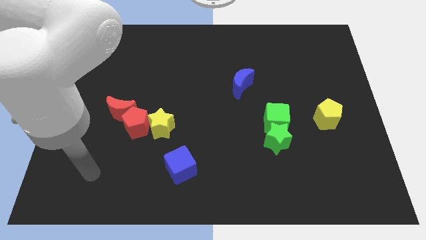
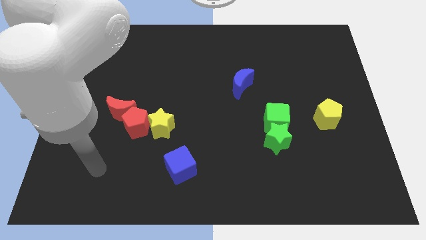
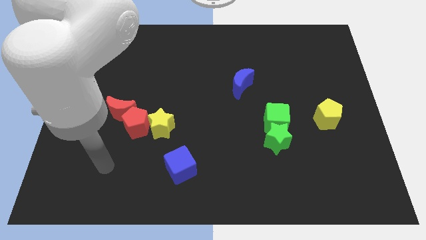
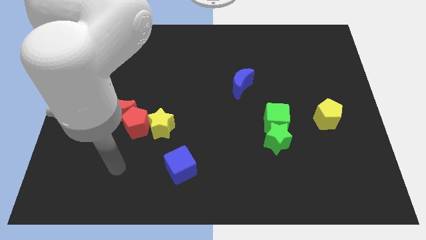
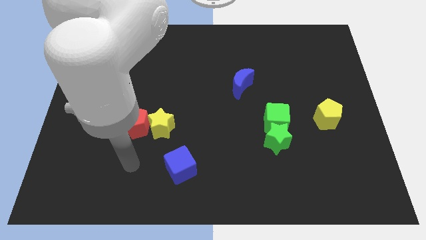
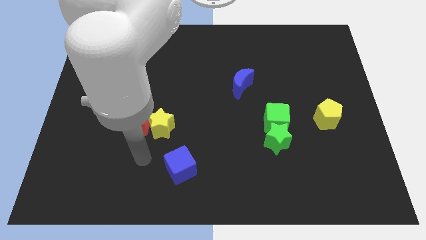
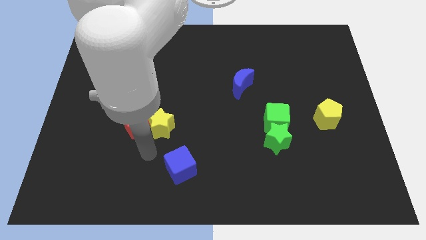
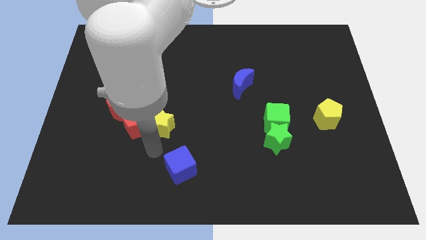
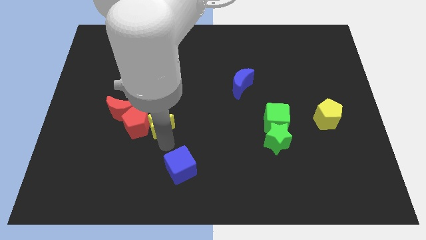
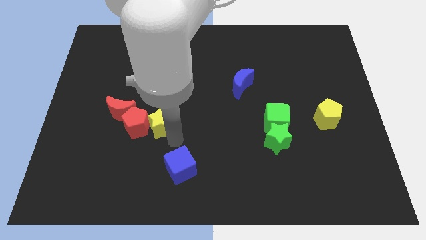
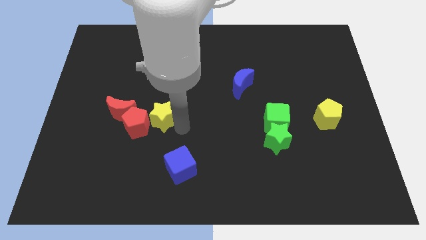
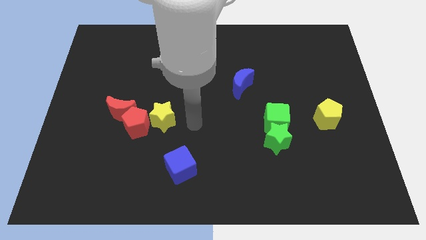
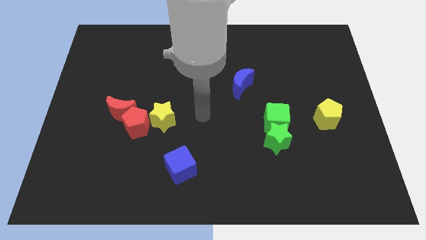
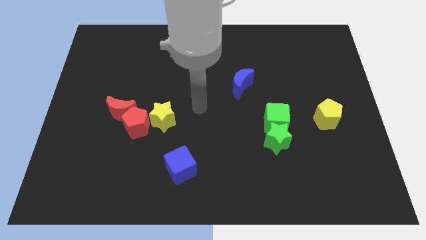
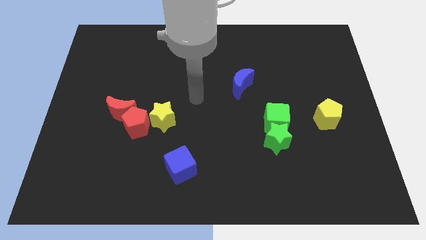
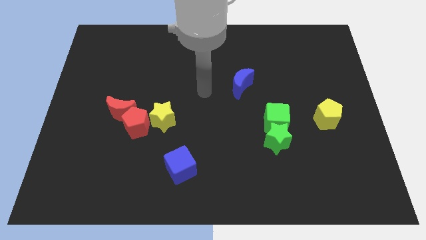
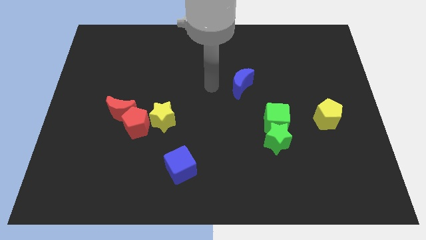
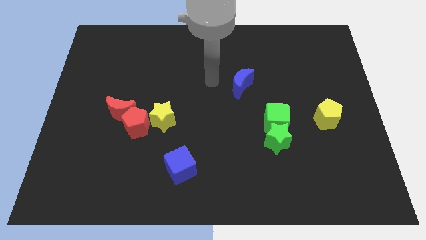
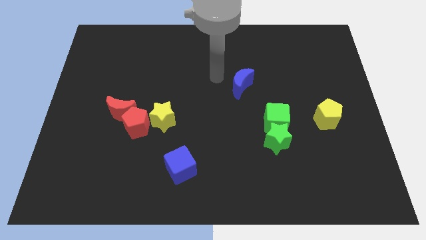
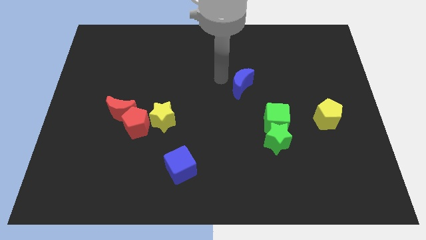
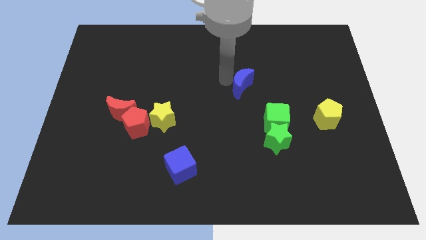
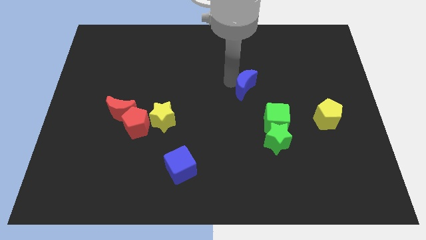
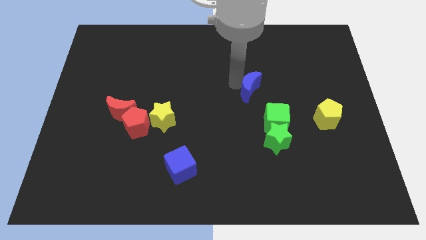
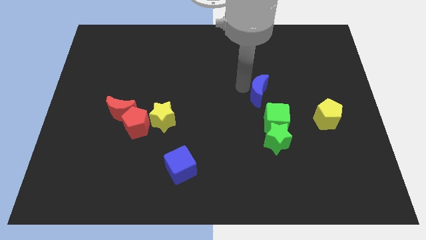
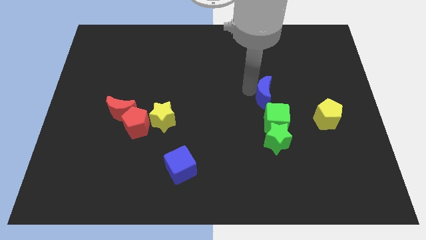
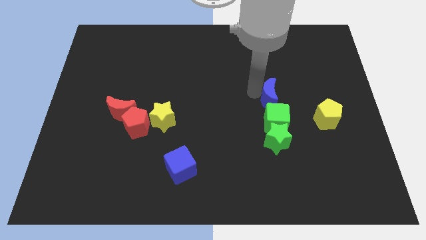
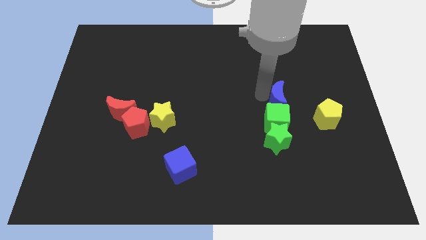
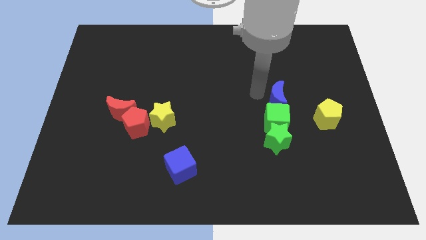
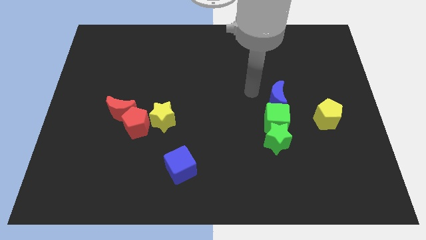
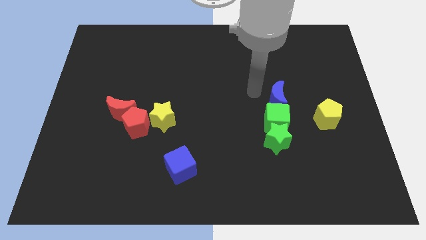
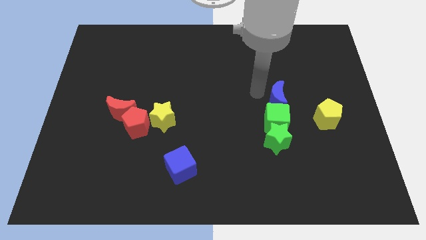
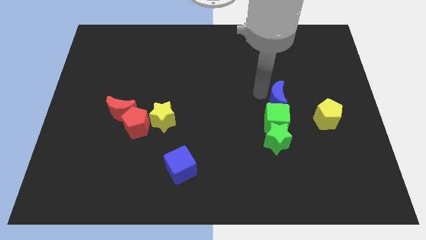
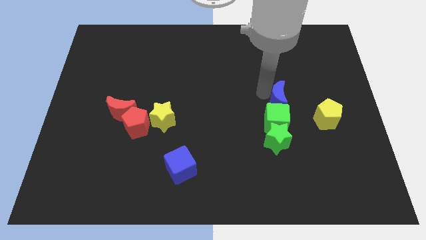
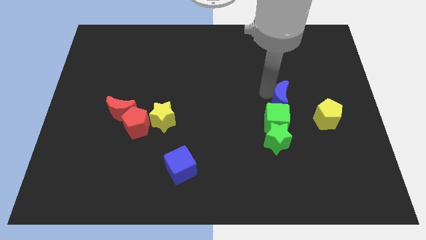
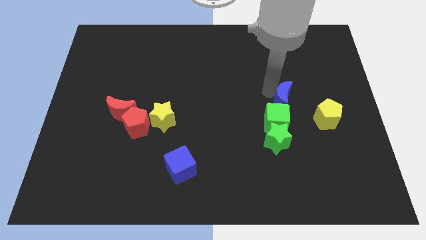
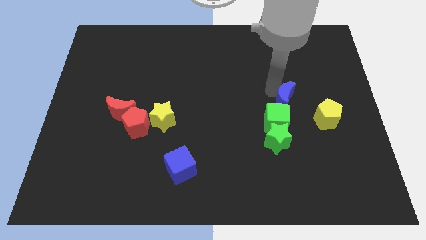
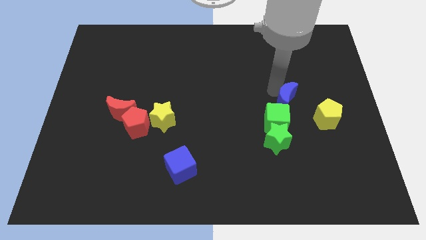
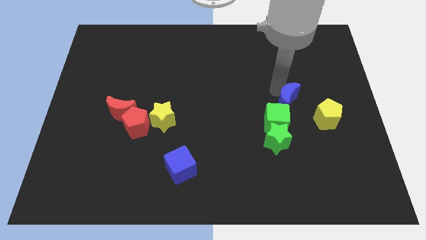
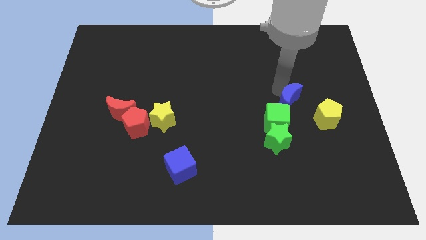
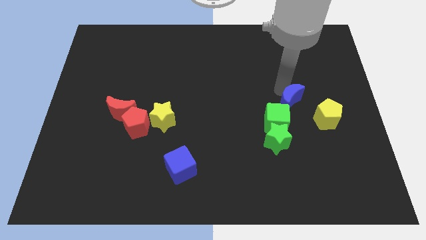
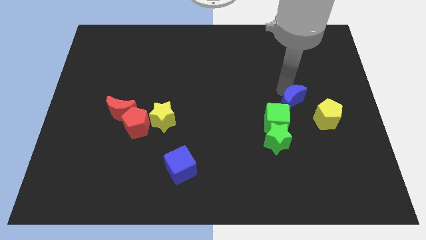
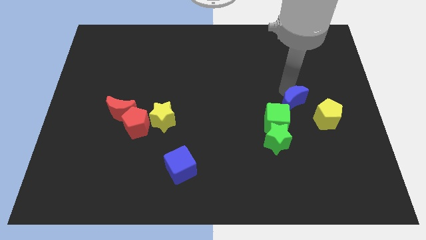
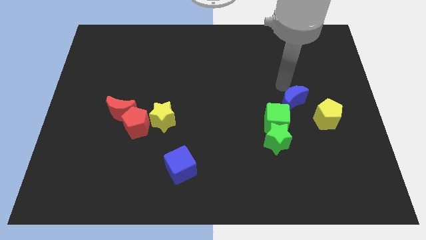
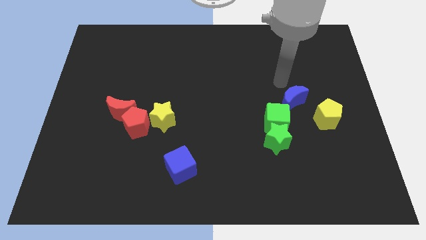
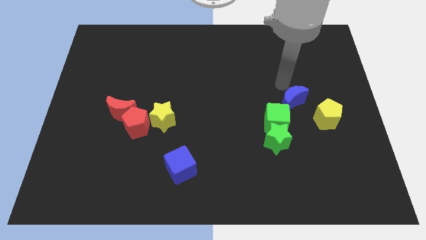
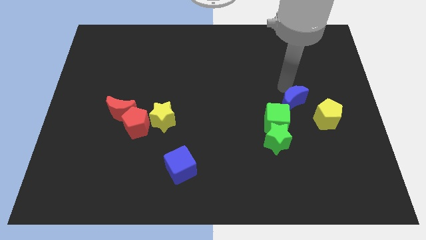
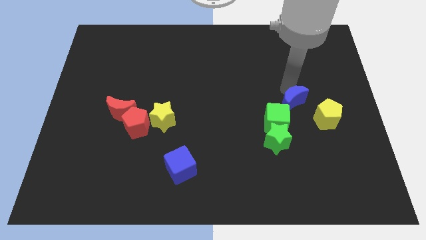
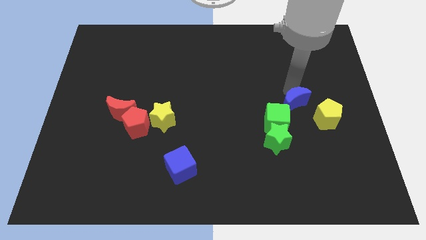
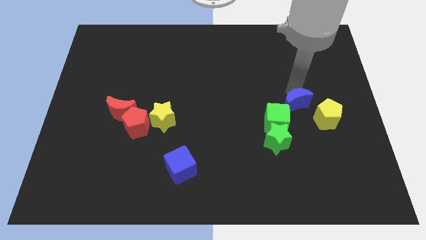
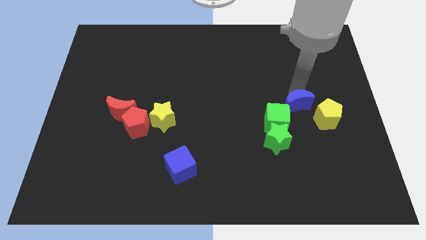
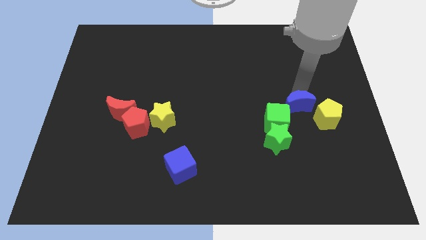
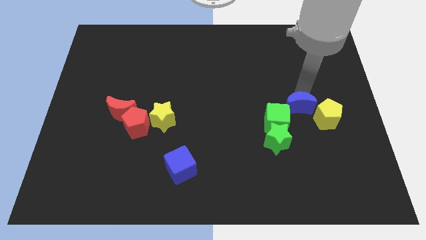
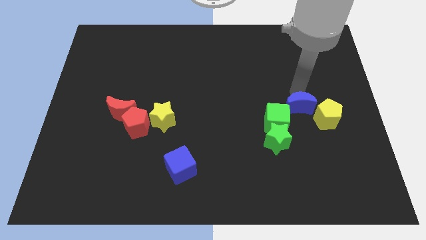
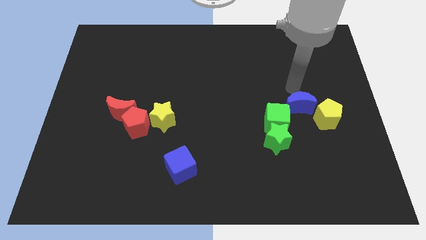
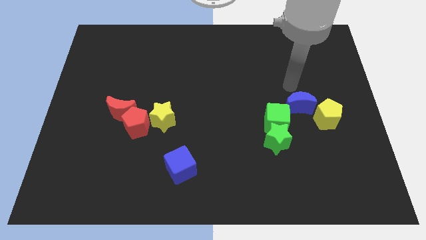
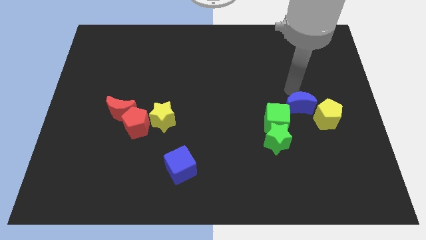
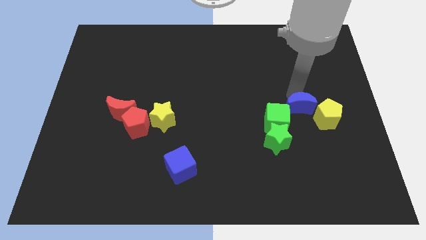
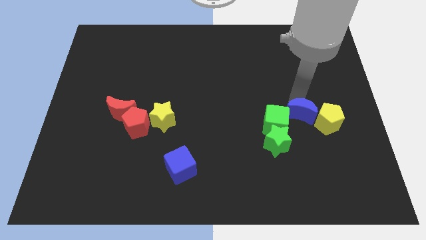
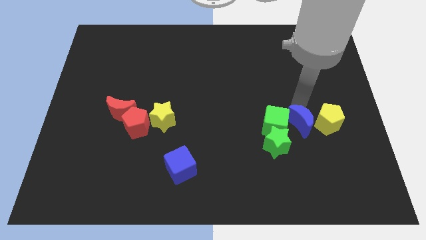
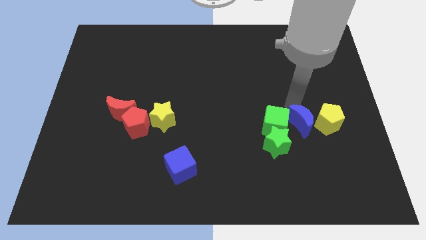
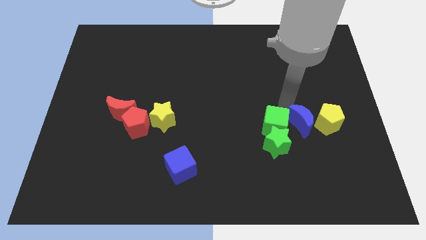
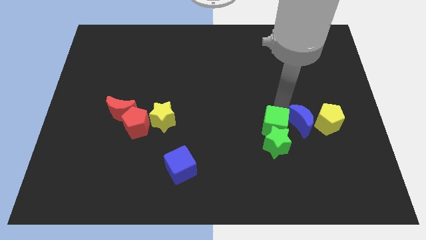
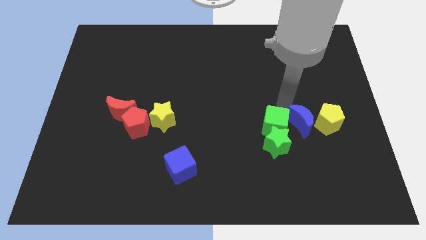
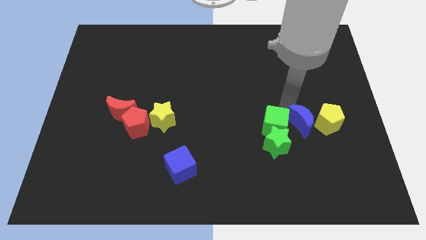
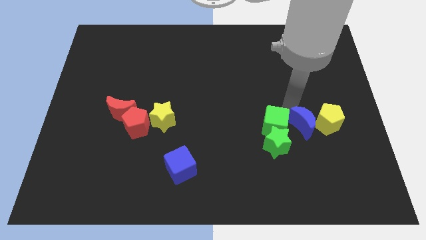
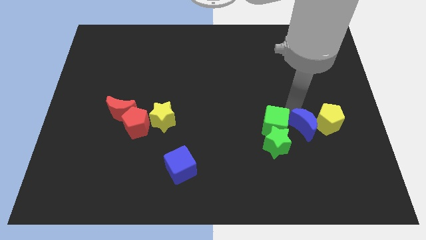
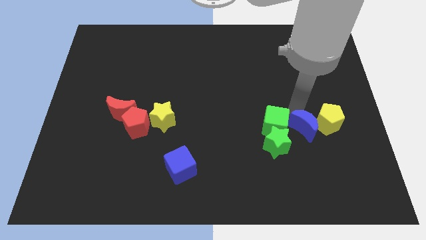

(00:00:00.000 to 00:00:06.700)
push the blue moon to the right of the green star

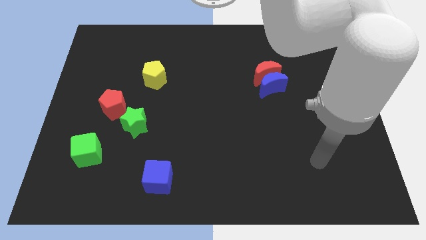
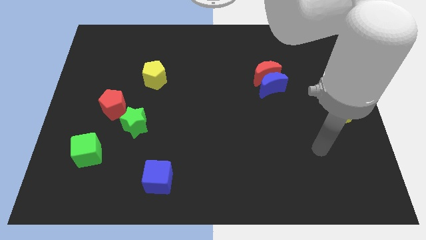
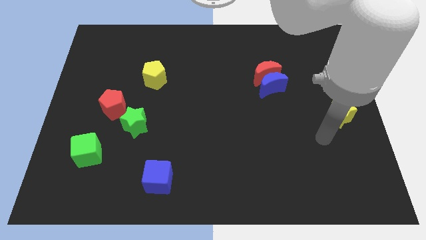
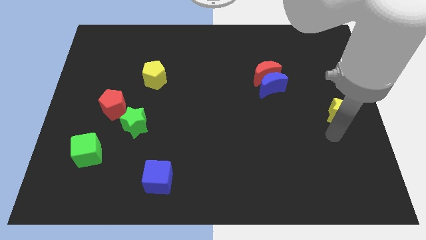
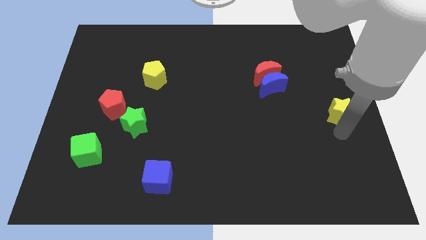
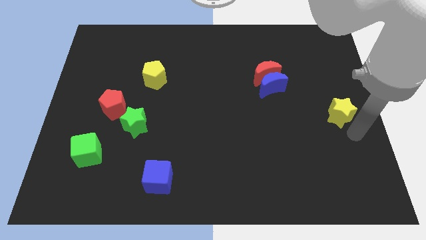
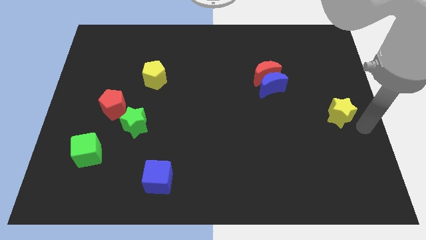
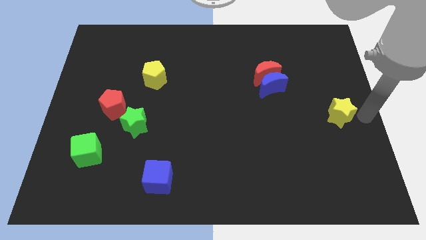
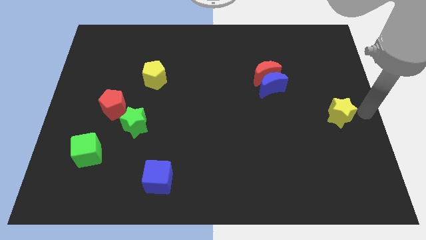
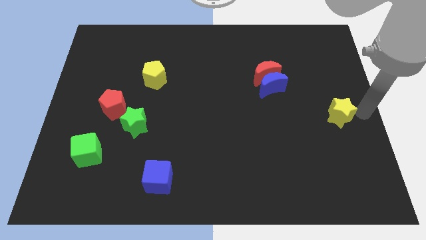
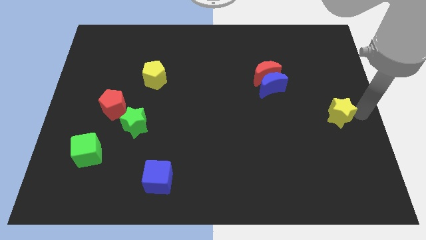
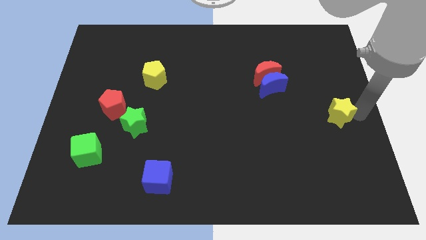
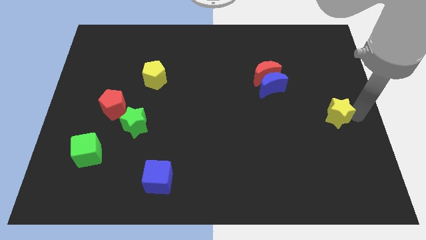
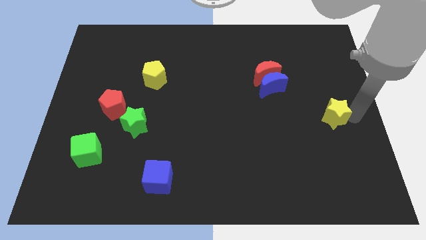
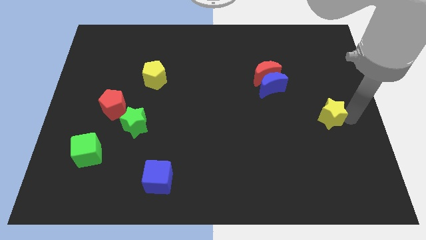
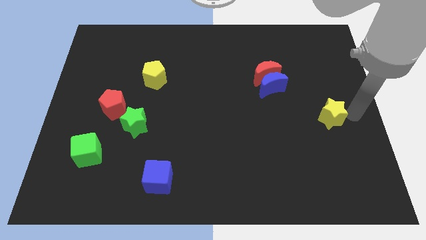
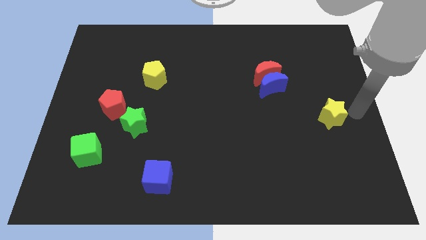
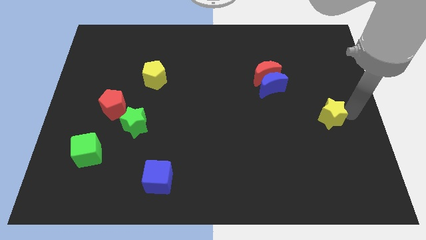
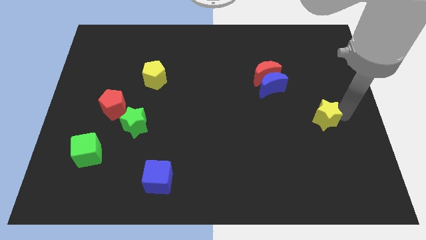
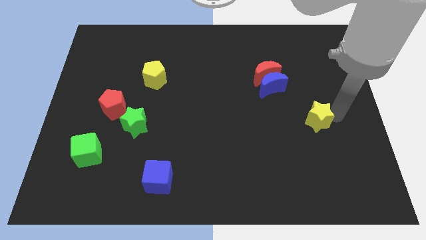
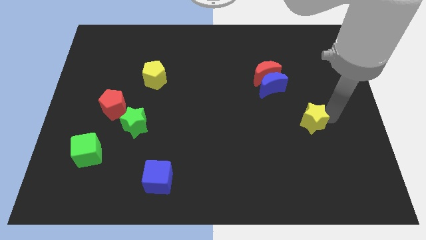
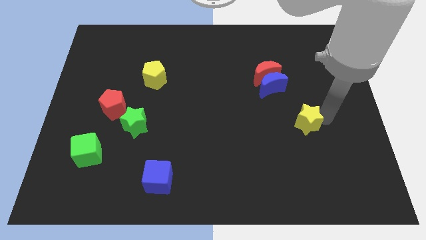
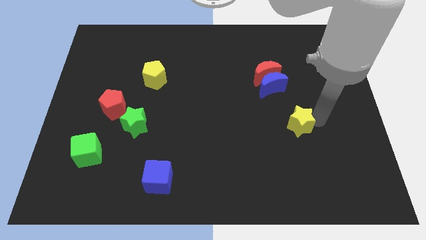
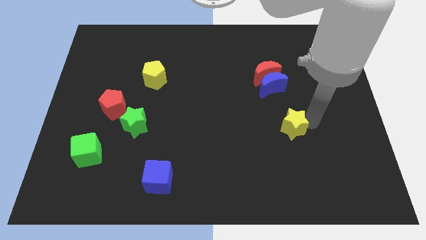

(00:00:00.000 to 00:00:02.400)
slide the yellow star to the bottom of the blue moon
